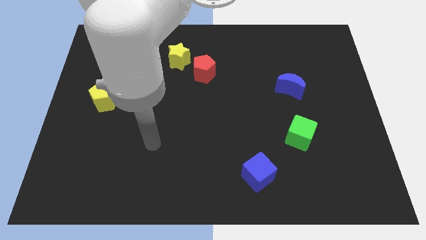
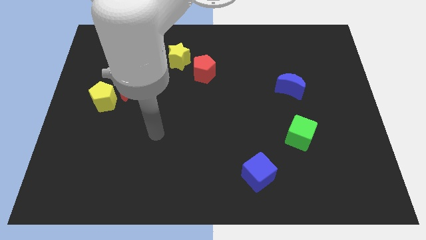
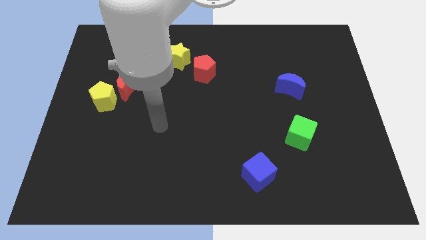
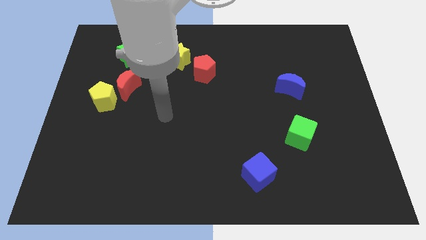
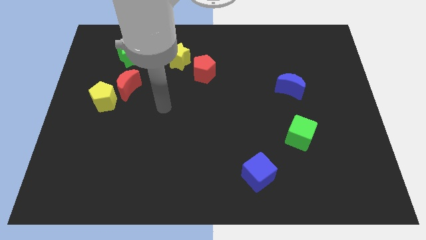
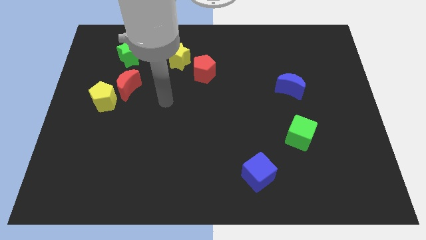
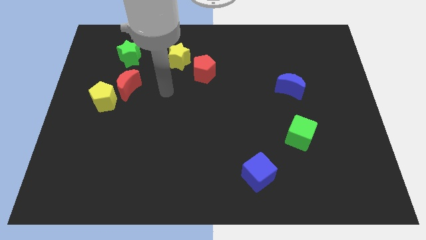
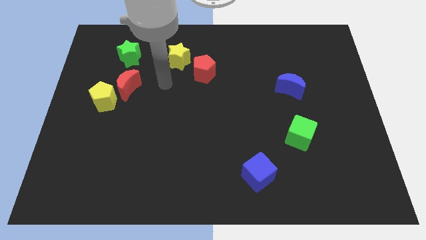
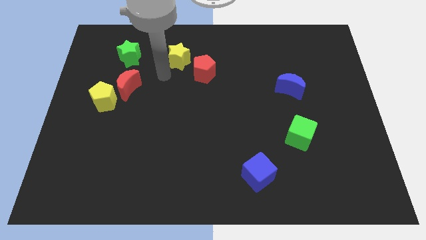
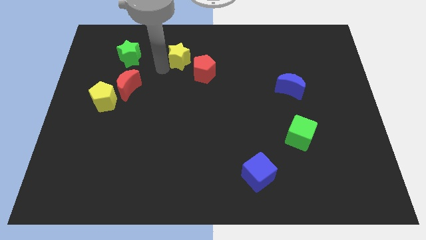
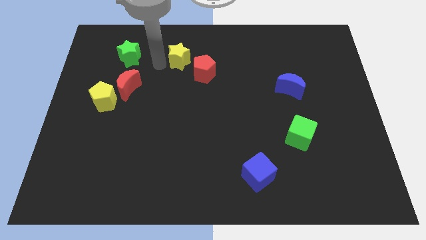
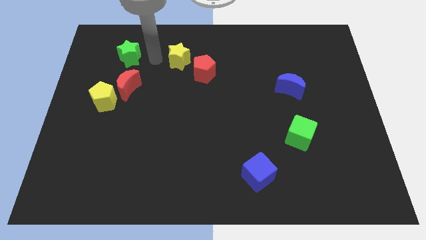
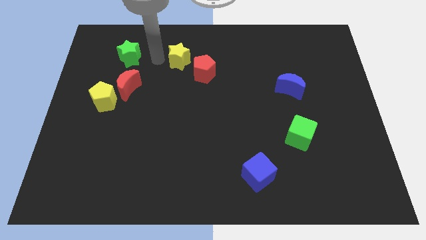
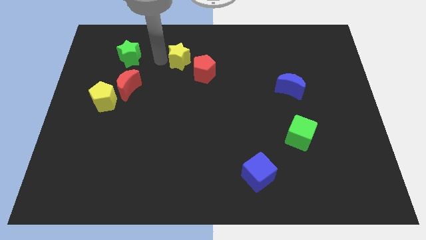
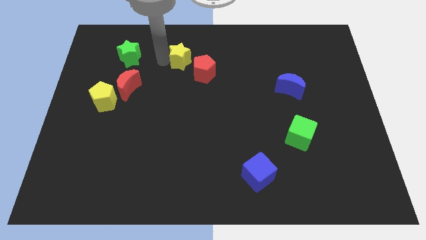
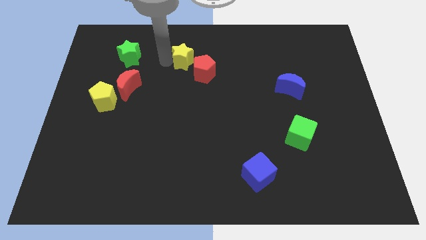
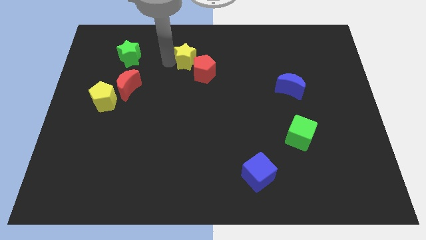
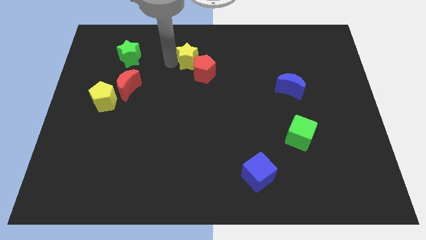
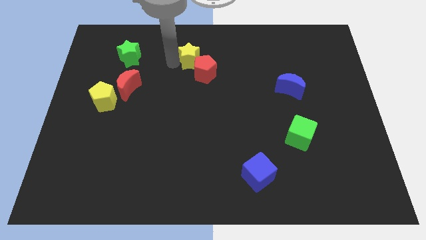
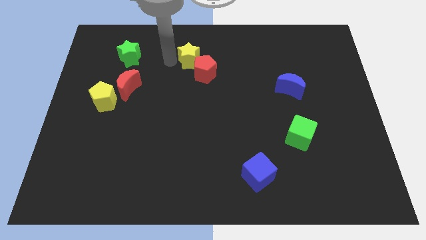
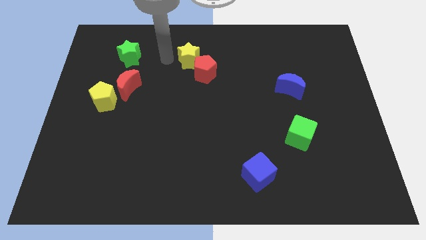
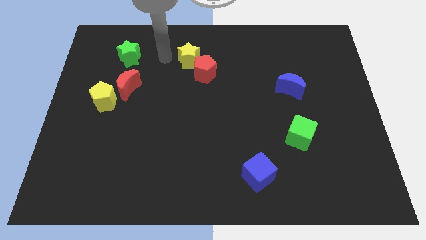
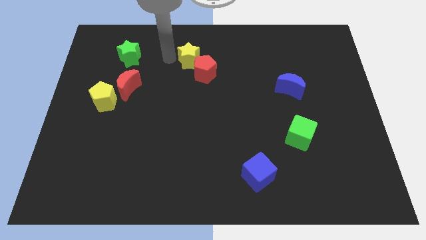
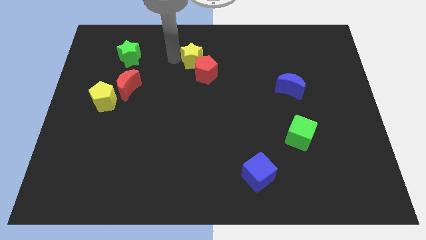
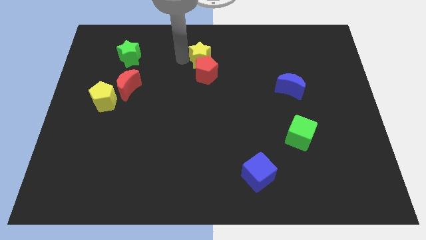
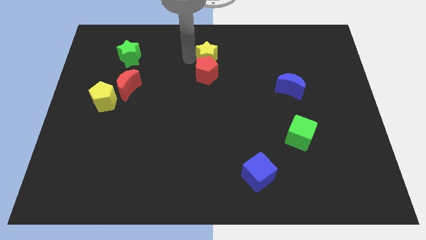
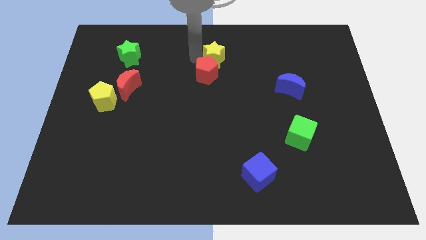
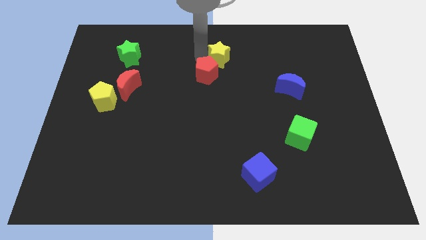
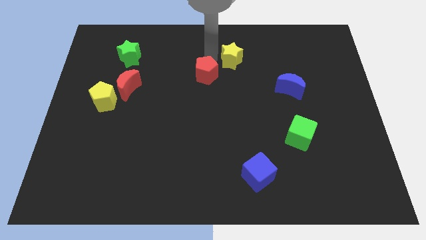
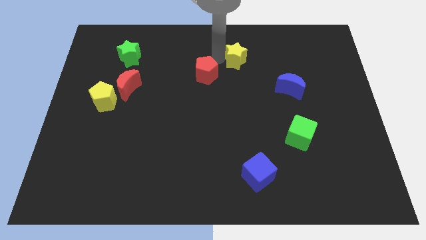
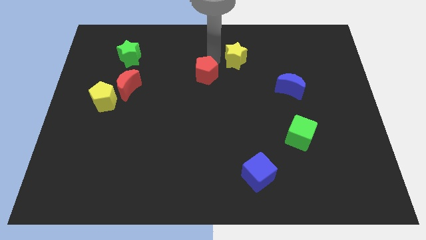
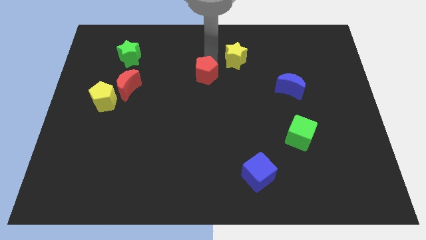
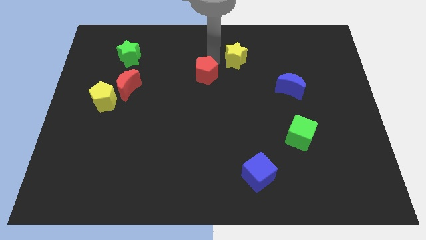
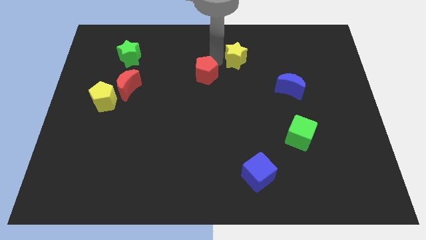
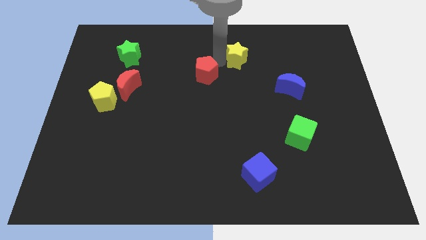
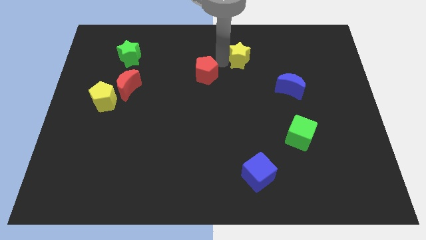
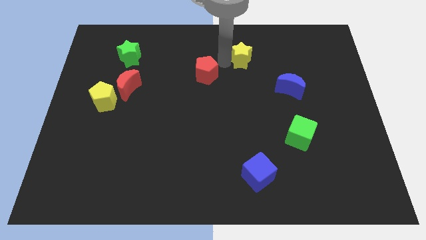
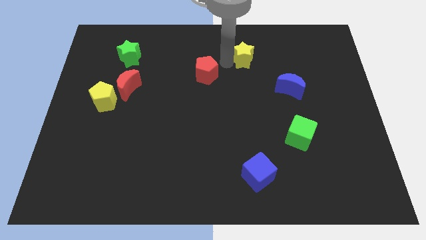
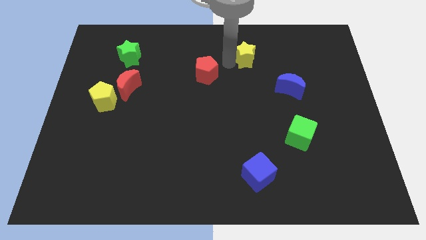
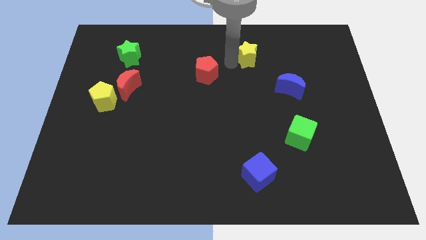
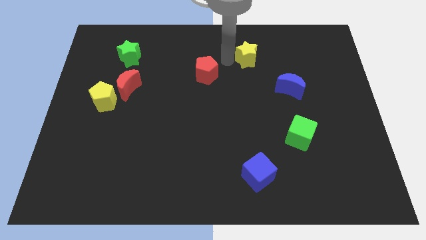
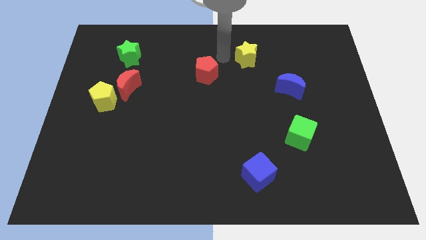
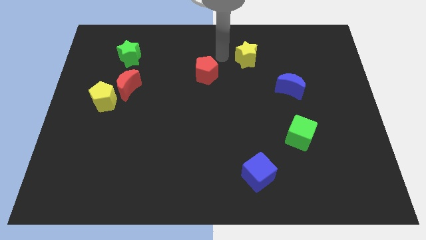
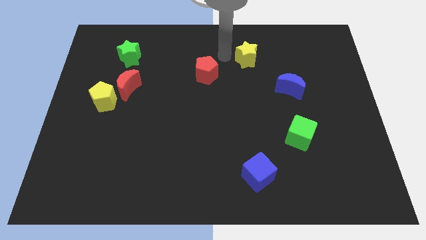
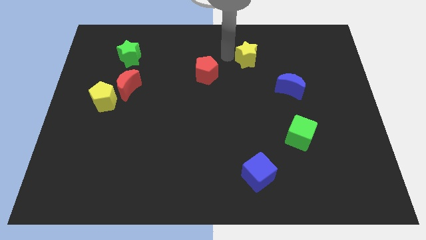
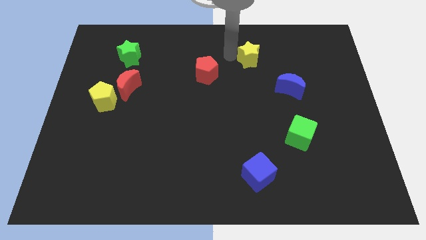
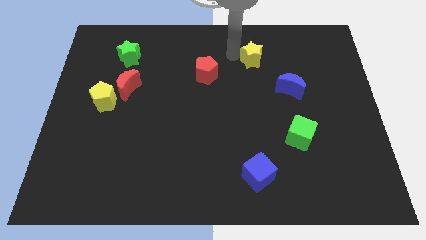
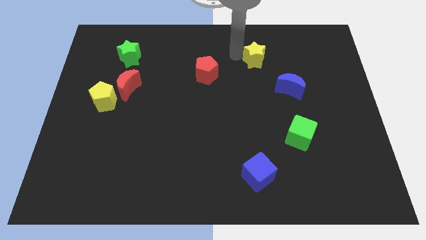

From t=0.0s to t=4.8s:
move the yellow star to the right

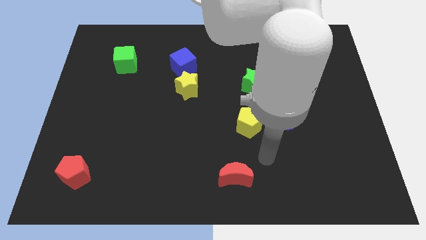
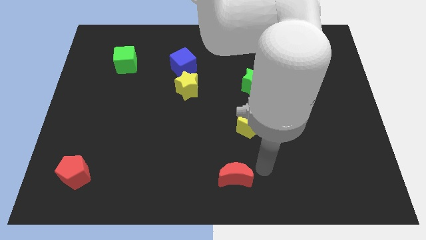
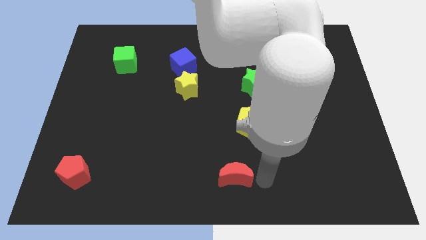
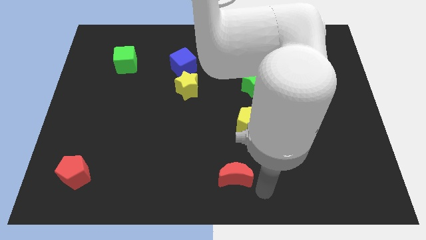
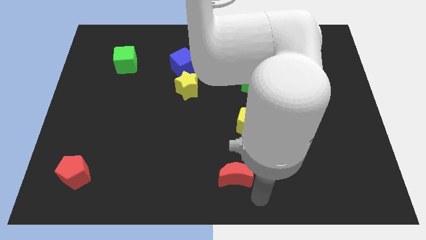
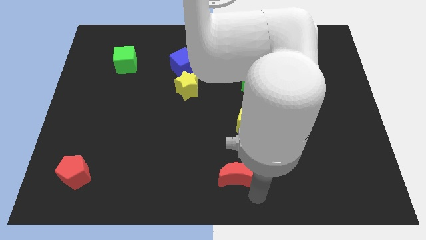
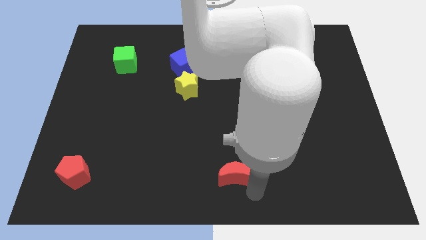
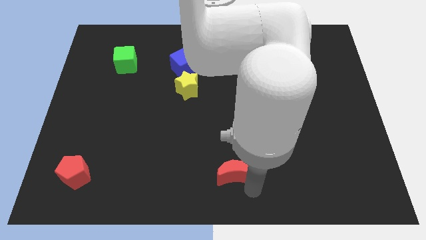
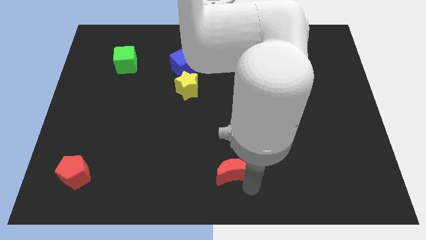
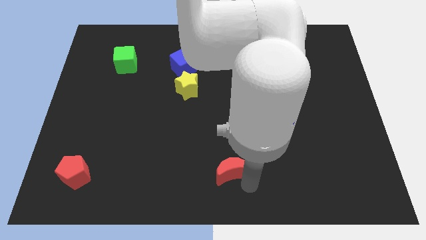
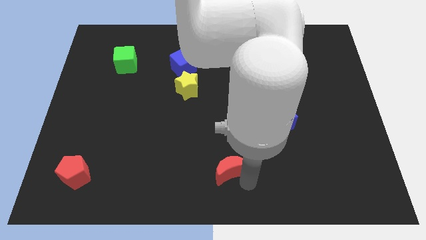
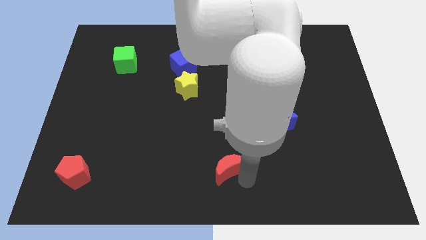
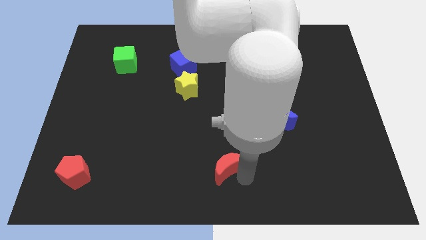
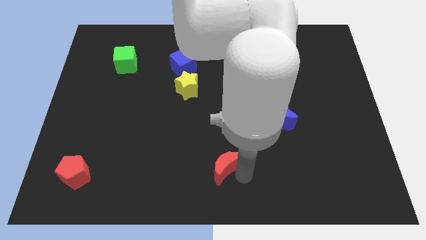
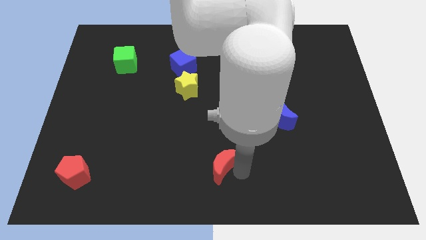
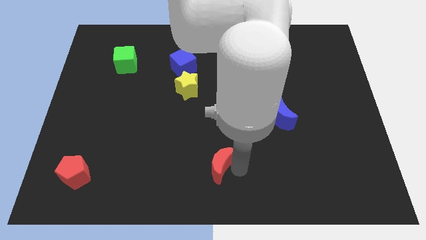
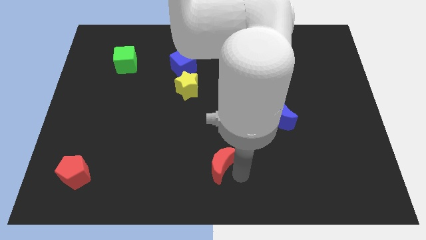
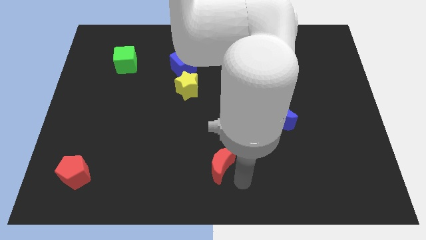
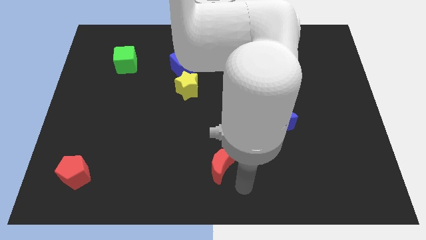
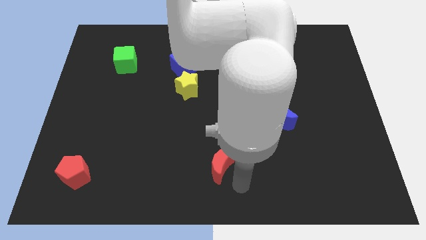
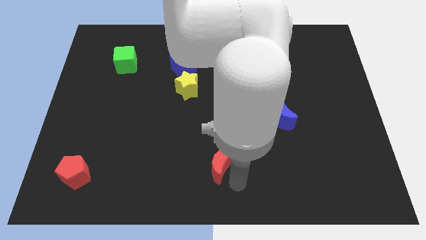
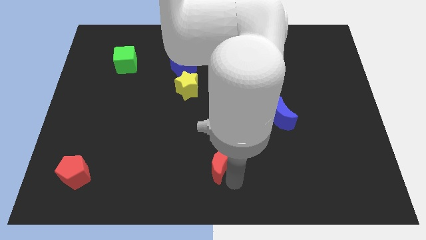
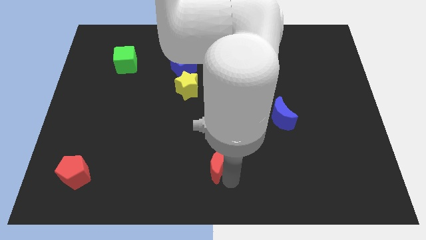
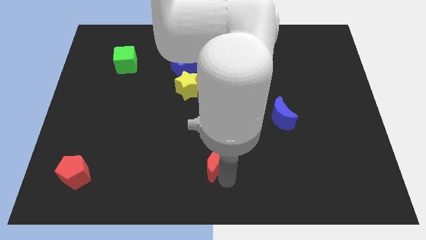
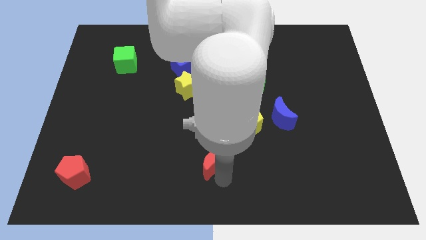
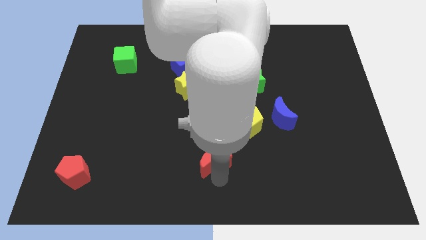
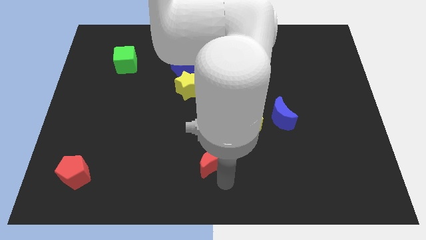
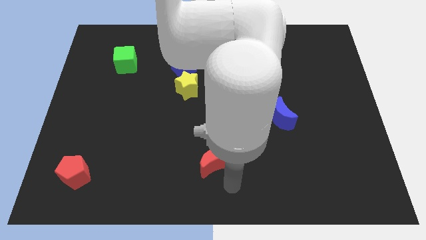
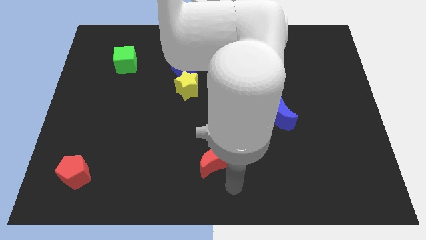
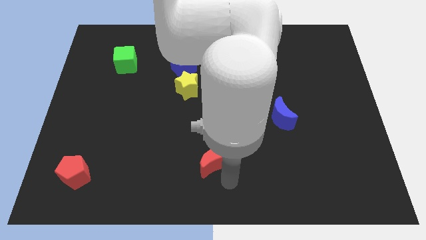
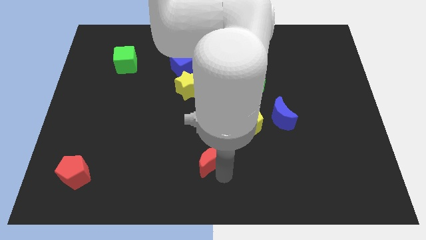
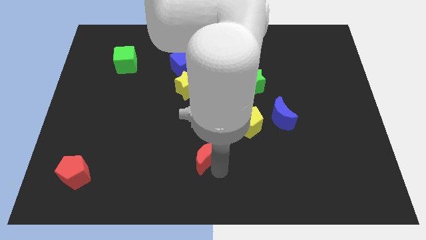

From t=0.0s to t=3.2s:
slightly slide the red moon diagonally upwards and to the left
